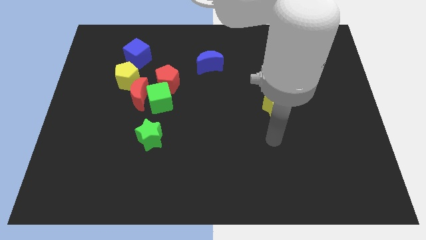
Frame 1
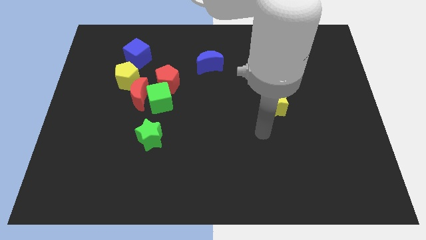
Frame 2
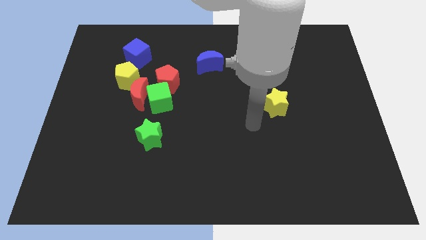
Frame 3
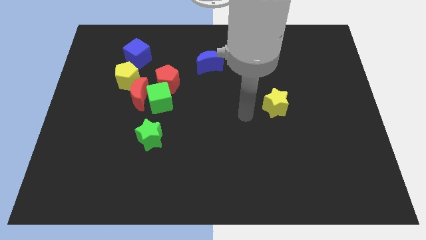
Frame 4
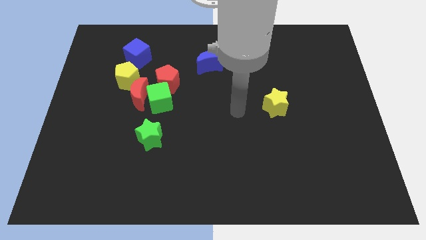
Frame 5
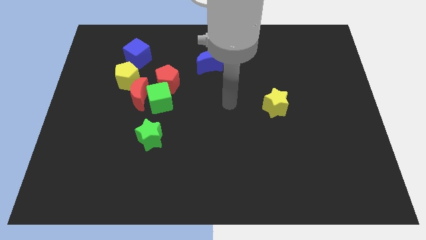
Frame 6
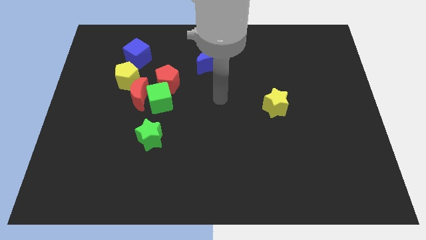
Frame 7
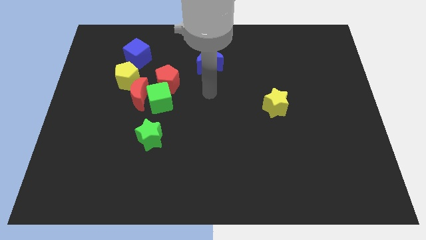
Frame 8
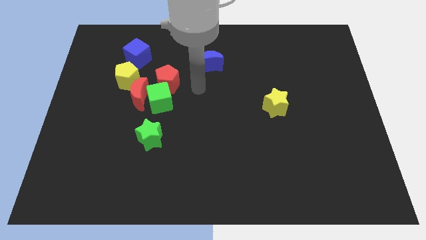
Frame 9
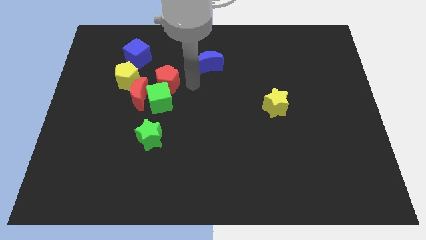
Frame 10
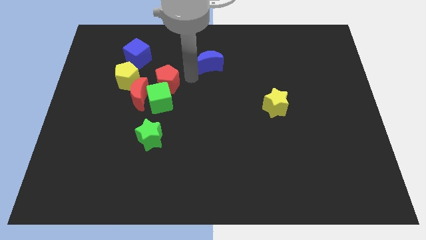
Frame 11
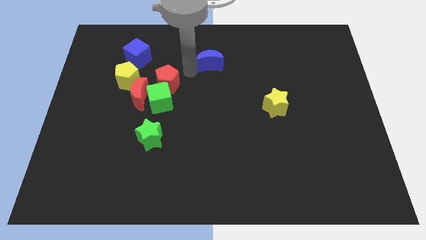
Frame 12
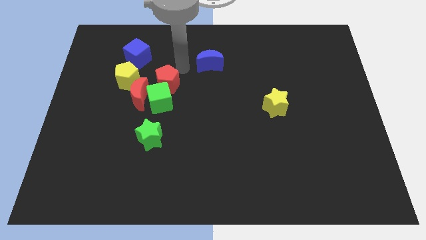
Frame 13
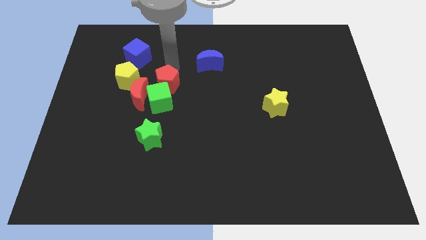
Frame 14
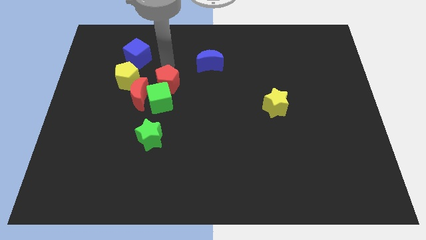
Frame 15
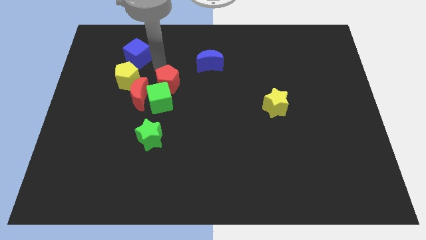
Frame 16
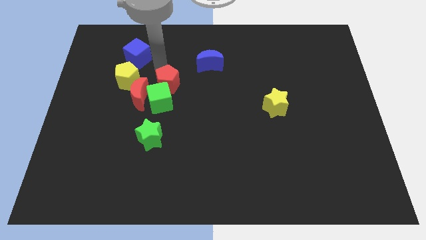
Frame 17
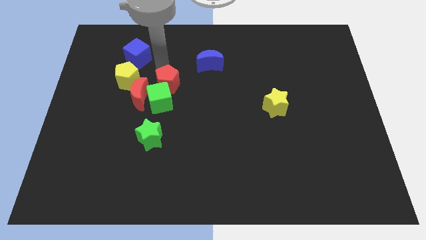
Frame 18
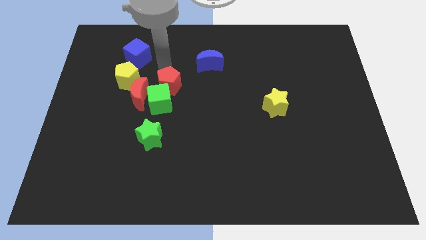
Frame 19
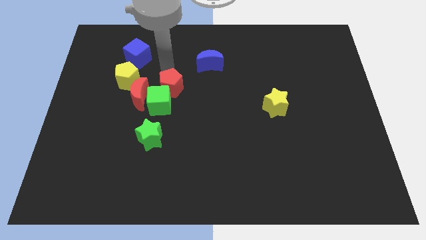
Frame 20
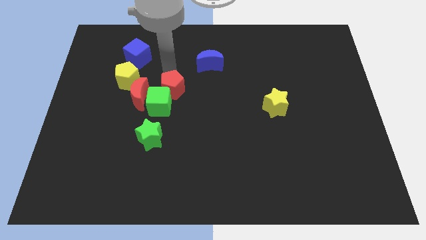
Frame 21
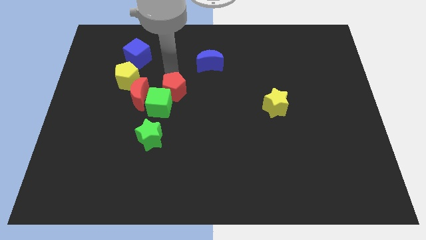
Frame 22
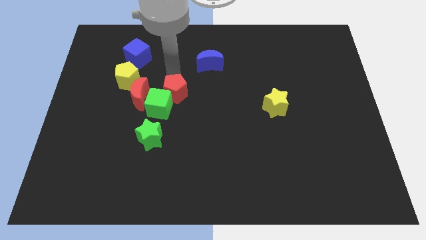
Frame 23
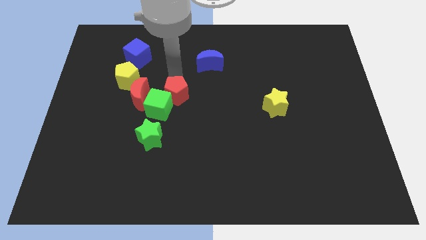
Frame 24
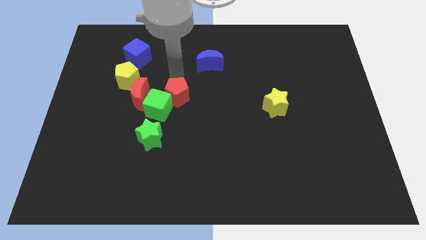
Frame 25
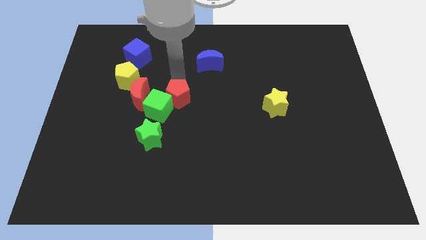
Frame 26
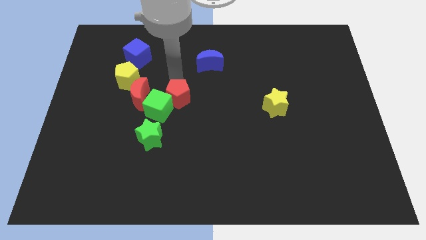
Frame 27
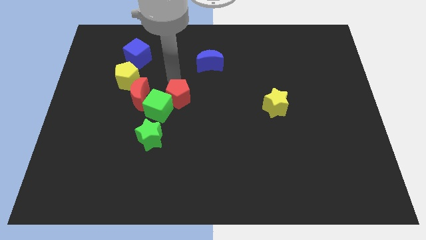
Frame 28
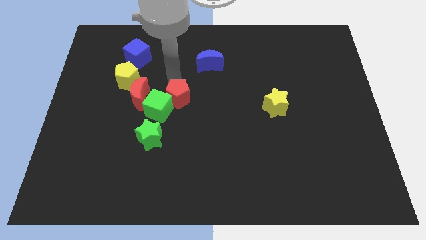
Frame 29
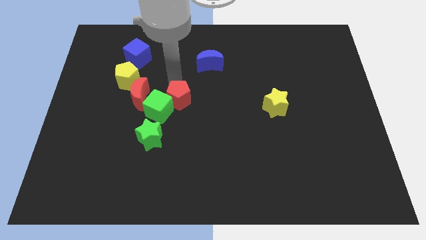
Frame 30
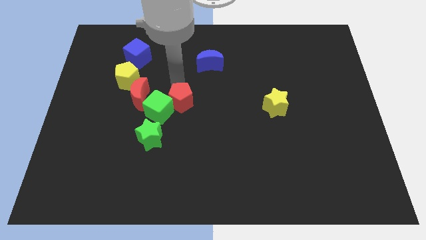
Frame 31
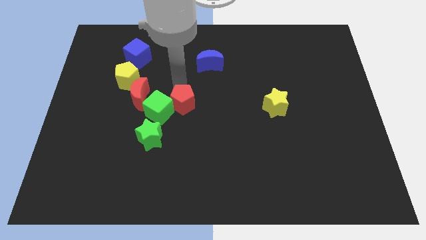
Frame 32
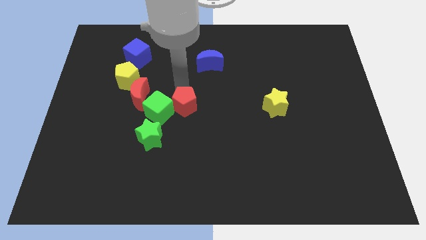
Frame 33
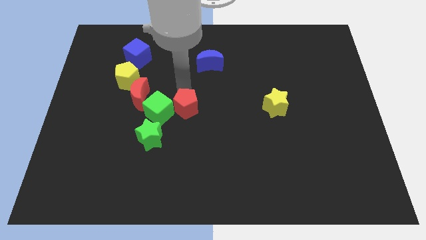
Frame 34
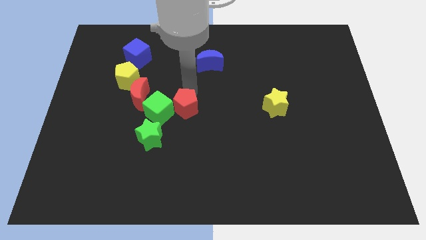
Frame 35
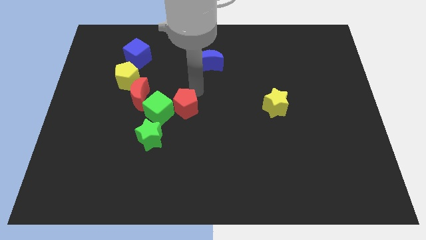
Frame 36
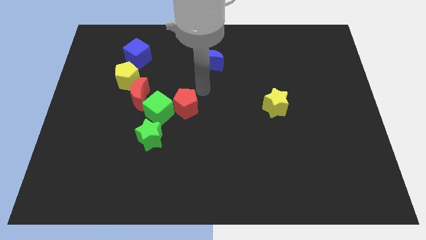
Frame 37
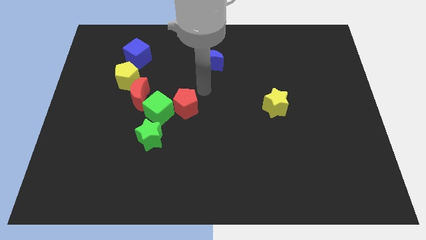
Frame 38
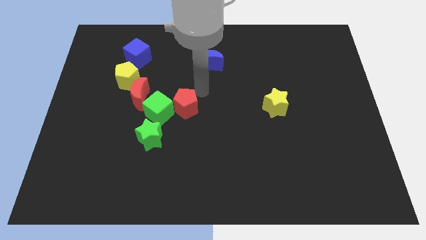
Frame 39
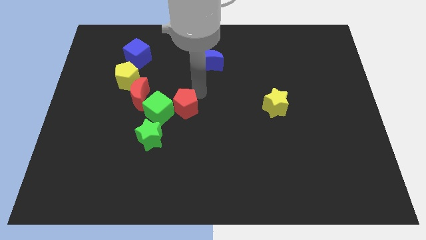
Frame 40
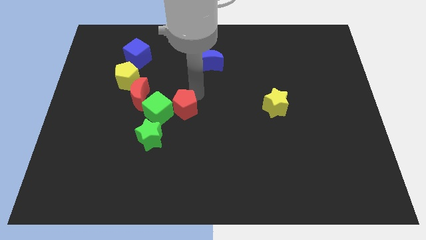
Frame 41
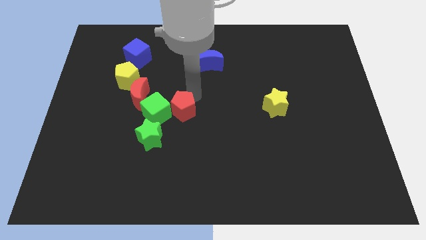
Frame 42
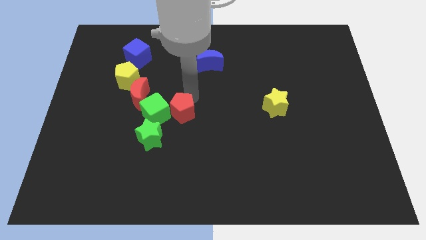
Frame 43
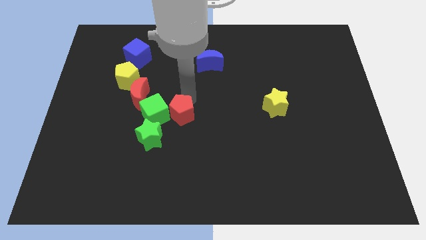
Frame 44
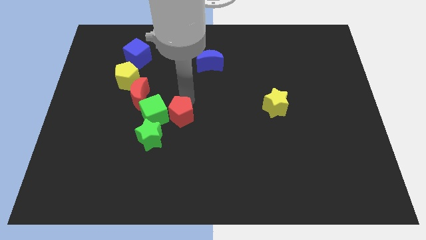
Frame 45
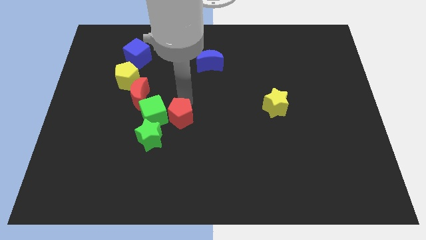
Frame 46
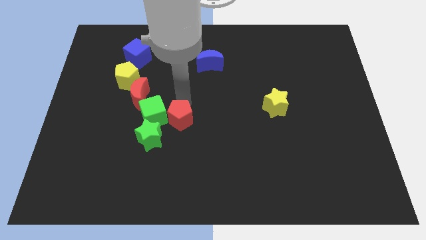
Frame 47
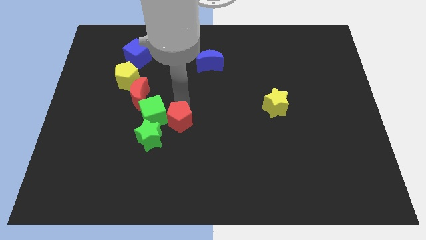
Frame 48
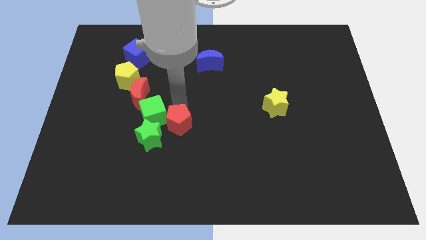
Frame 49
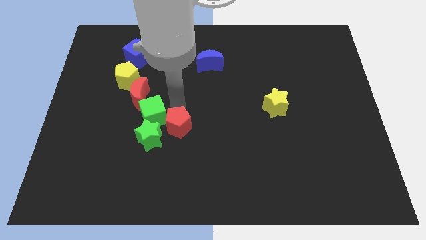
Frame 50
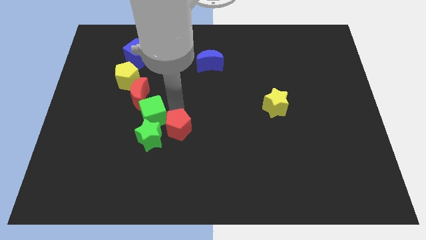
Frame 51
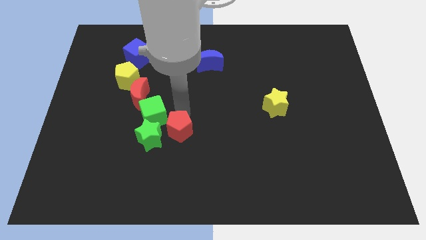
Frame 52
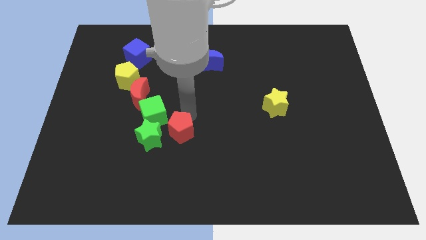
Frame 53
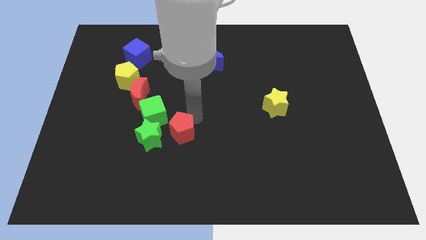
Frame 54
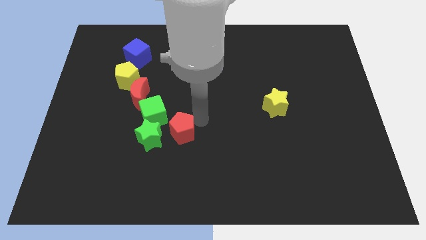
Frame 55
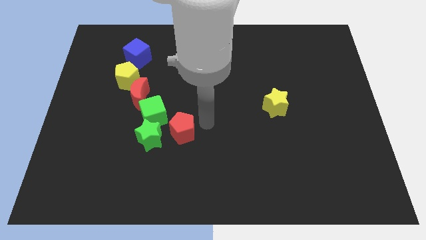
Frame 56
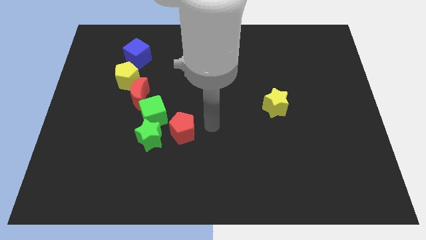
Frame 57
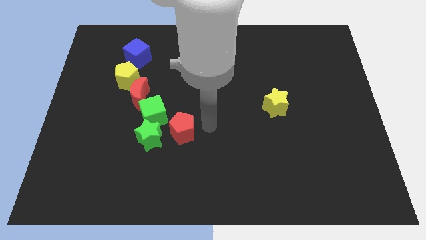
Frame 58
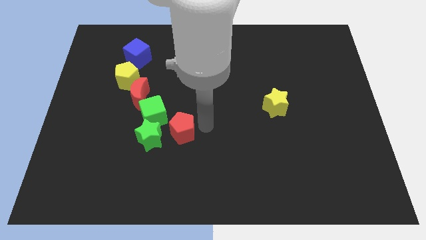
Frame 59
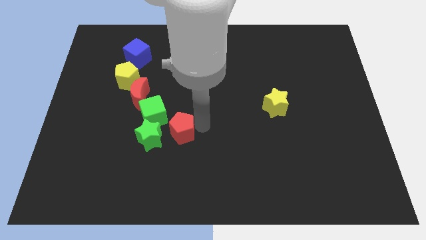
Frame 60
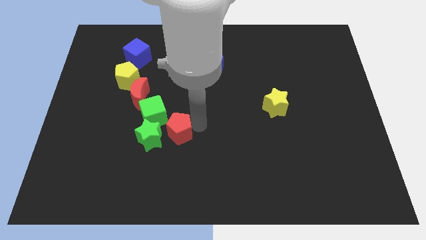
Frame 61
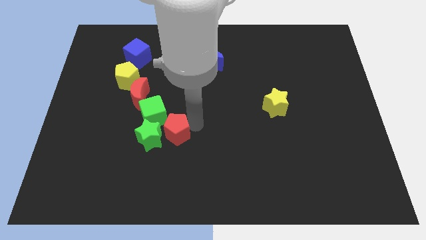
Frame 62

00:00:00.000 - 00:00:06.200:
slide the red pentagon towards the green star
